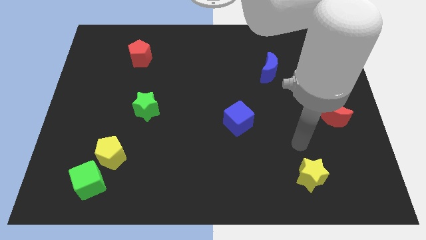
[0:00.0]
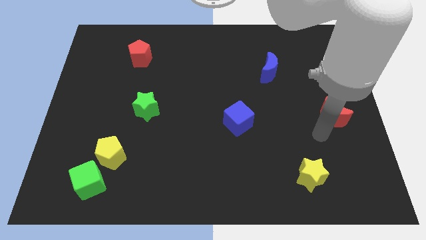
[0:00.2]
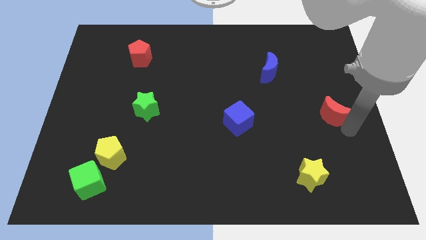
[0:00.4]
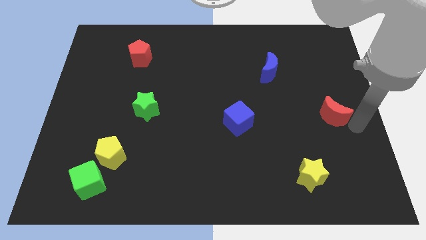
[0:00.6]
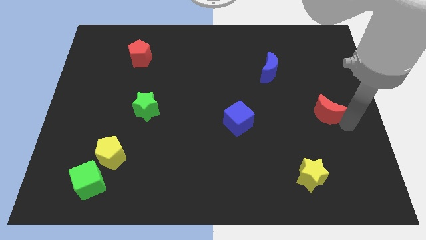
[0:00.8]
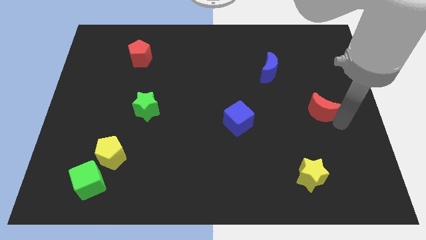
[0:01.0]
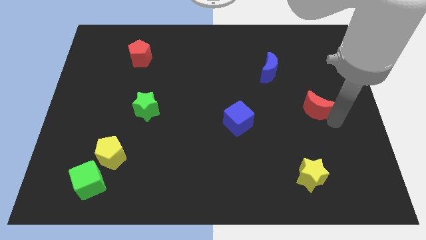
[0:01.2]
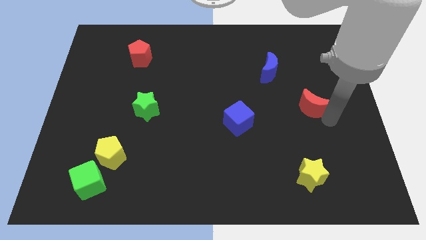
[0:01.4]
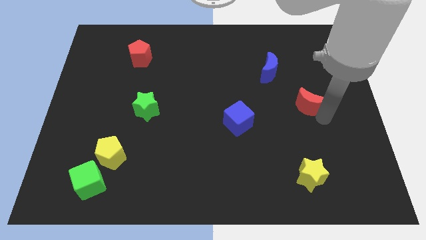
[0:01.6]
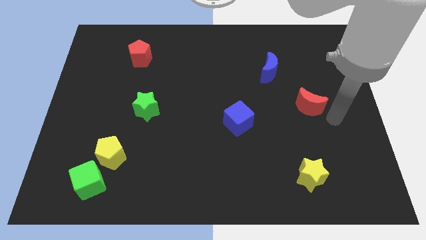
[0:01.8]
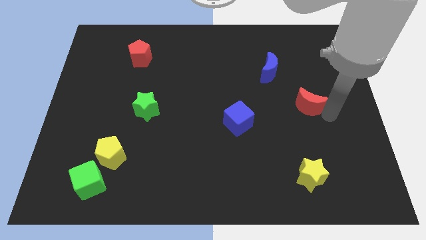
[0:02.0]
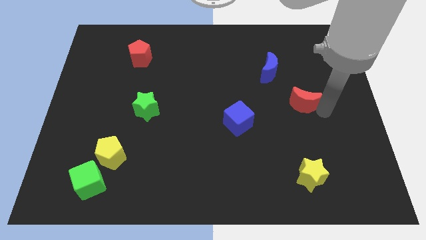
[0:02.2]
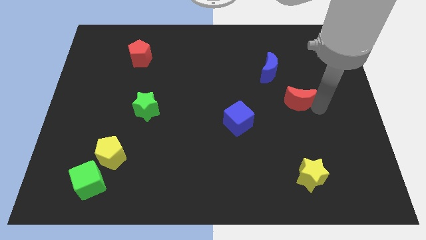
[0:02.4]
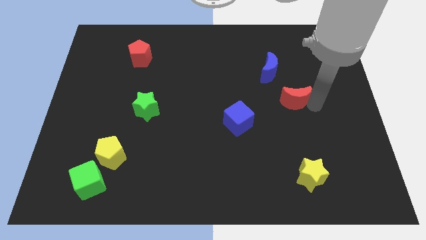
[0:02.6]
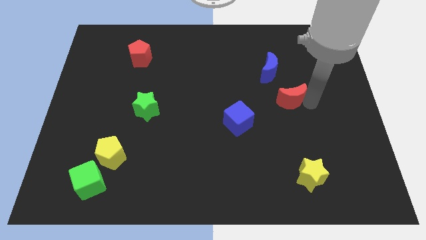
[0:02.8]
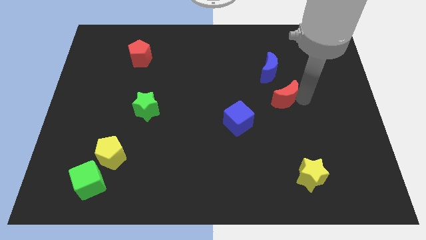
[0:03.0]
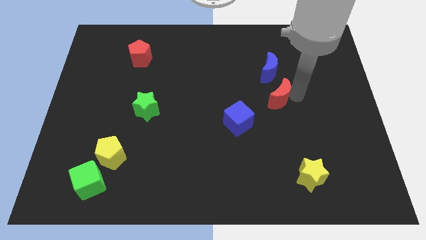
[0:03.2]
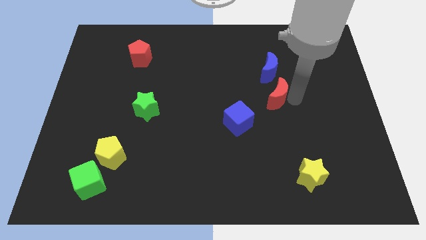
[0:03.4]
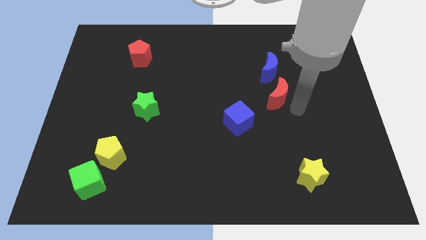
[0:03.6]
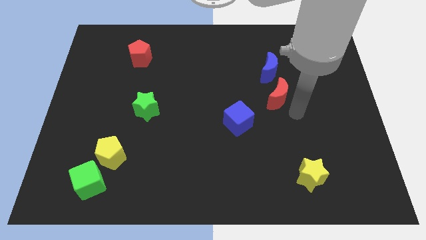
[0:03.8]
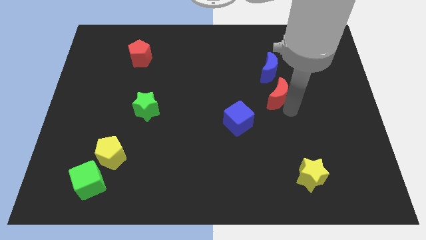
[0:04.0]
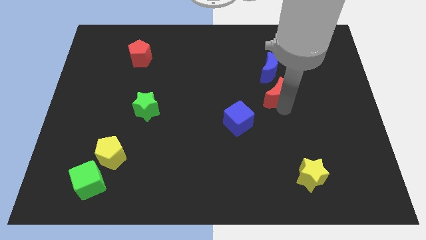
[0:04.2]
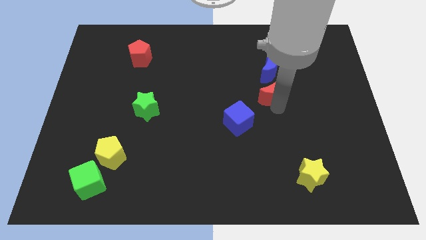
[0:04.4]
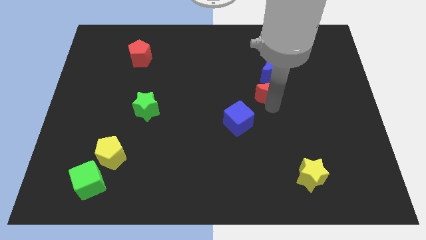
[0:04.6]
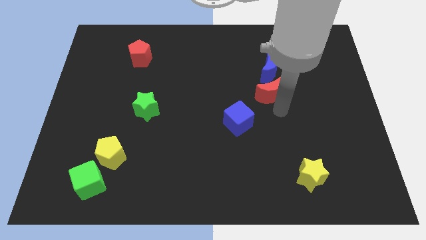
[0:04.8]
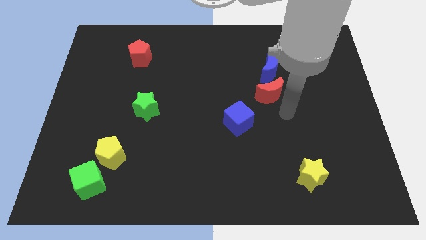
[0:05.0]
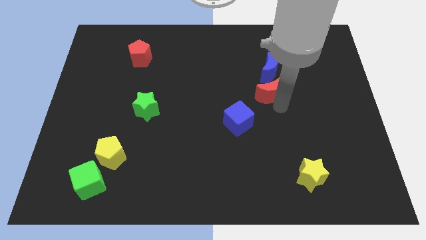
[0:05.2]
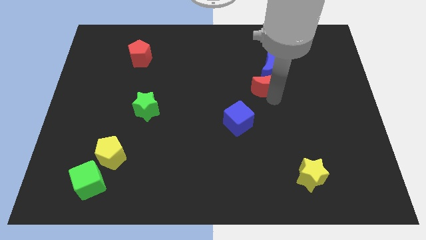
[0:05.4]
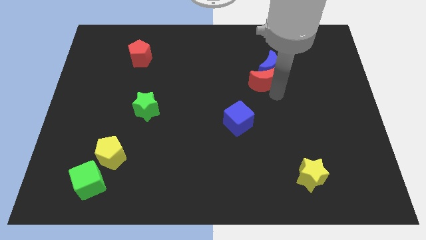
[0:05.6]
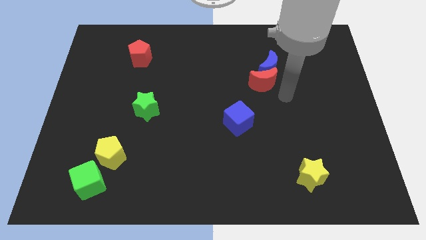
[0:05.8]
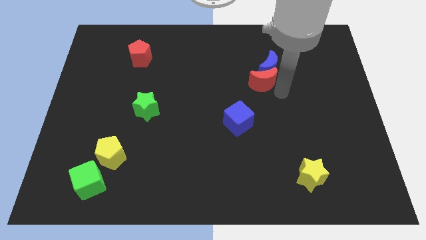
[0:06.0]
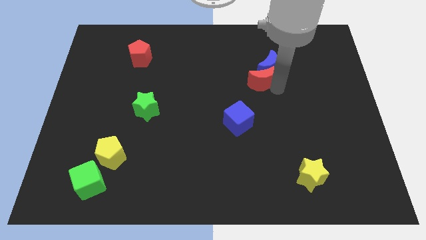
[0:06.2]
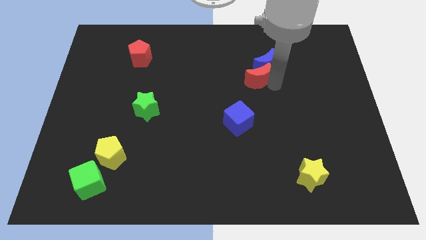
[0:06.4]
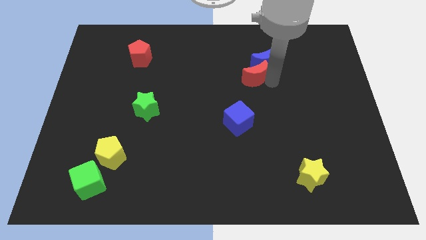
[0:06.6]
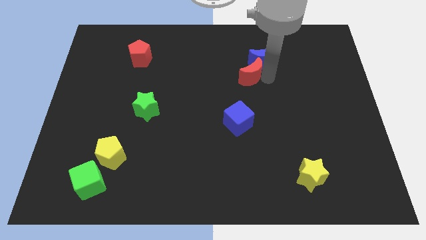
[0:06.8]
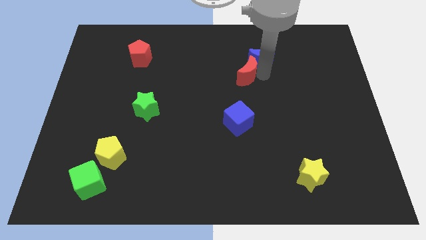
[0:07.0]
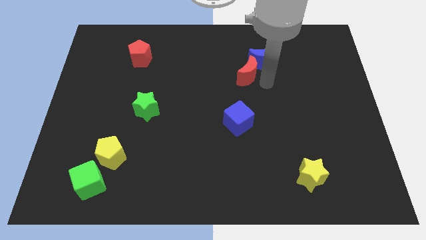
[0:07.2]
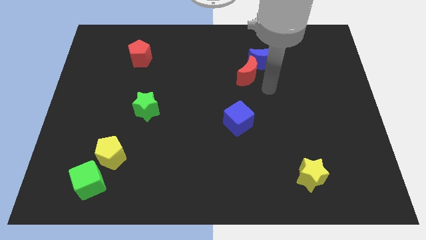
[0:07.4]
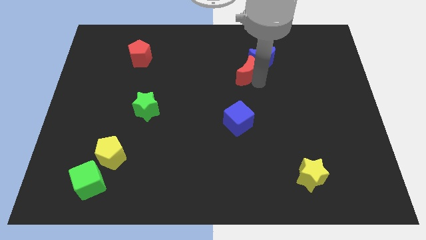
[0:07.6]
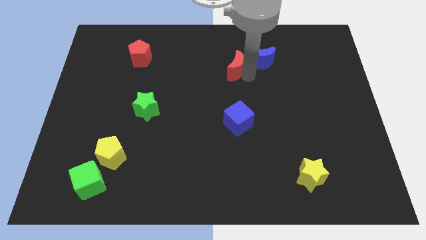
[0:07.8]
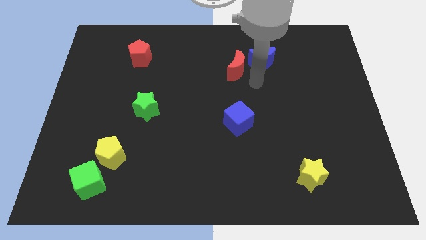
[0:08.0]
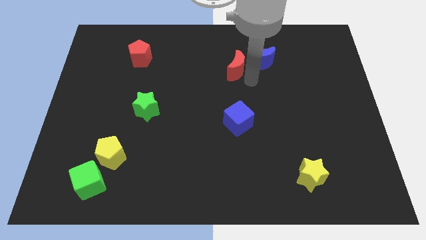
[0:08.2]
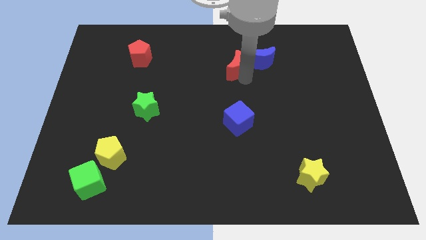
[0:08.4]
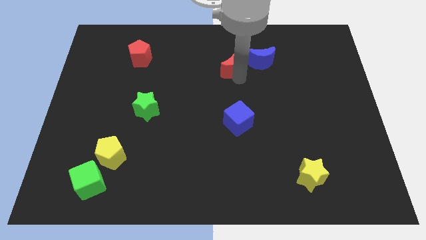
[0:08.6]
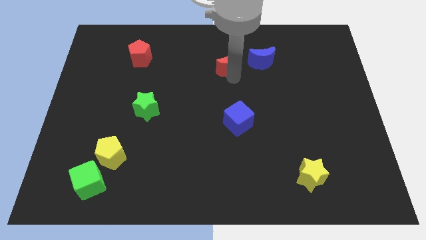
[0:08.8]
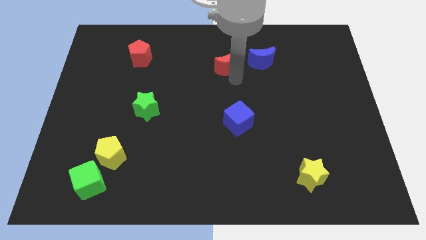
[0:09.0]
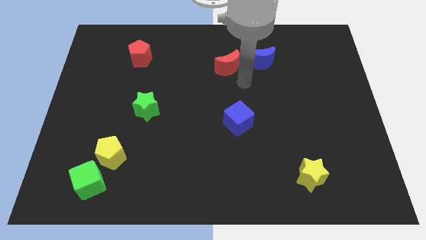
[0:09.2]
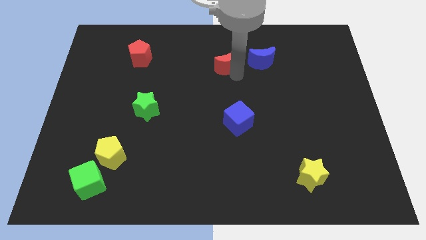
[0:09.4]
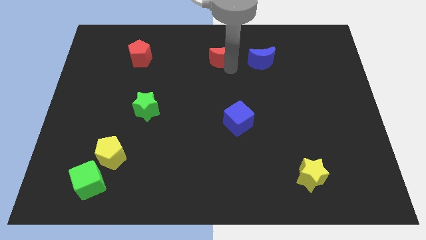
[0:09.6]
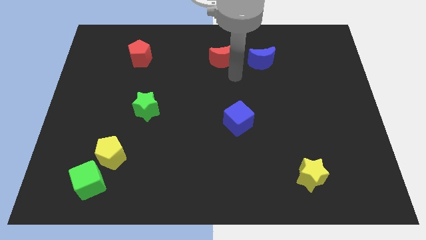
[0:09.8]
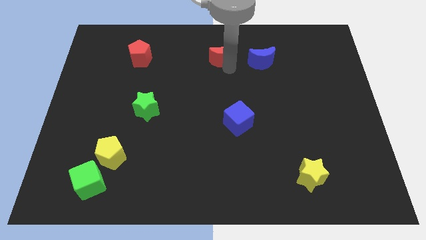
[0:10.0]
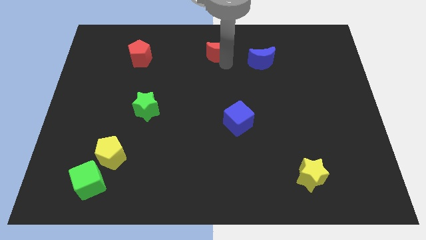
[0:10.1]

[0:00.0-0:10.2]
slide the red moon to the top side

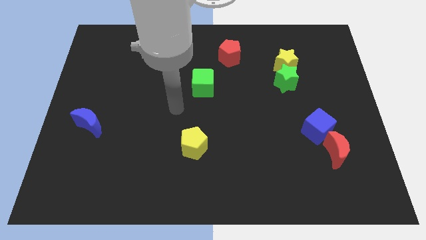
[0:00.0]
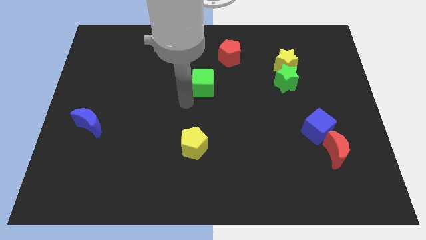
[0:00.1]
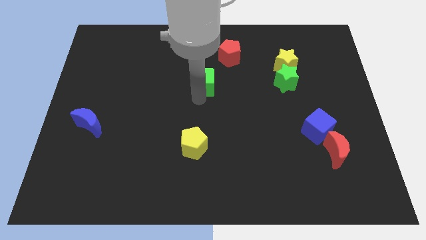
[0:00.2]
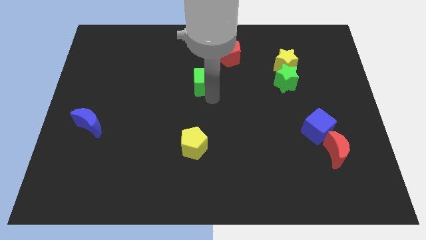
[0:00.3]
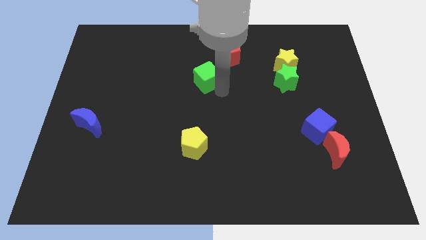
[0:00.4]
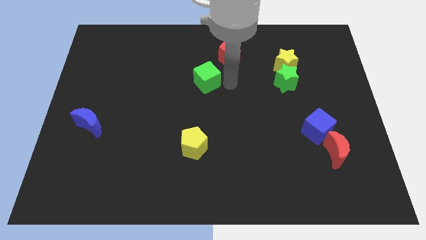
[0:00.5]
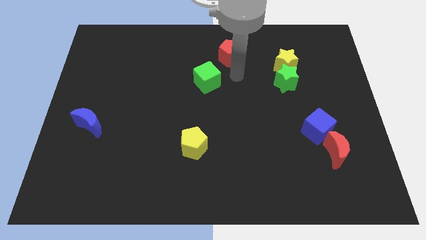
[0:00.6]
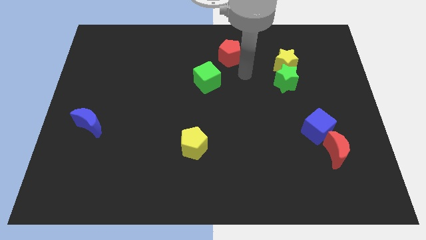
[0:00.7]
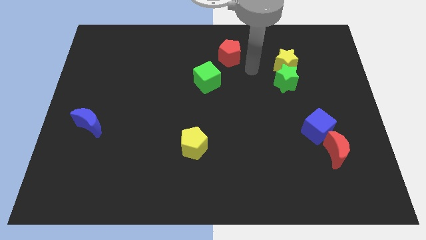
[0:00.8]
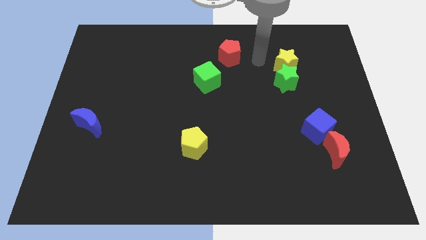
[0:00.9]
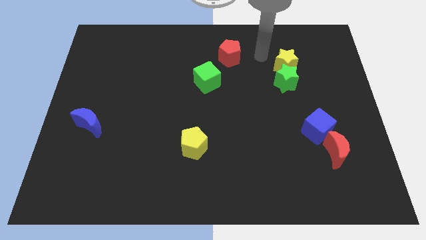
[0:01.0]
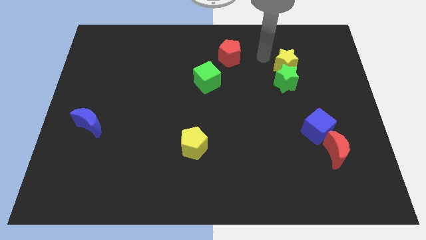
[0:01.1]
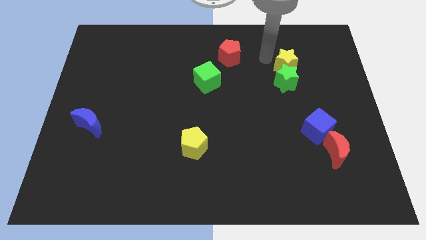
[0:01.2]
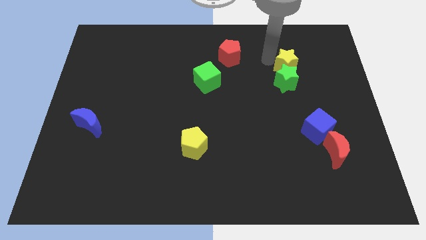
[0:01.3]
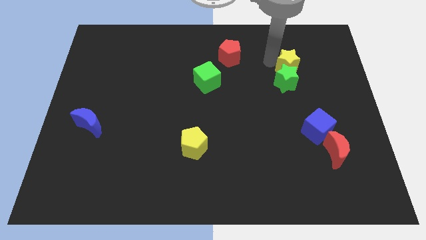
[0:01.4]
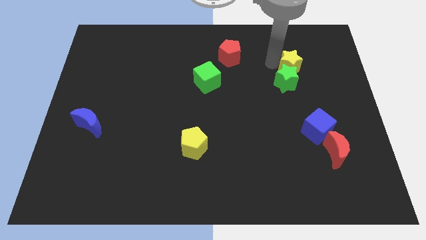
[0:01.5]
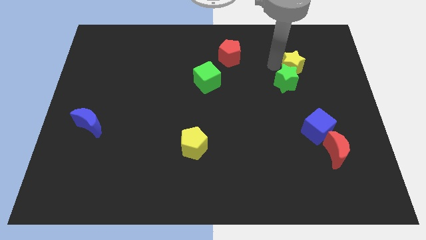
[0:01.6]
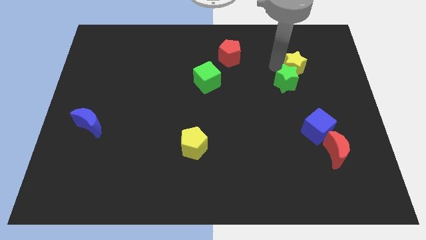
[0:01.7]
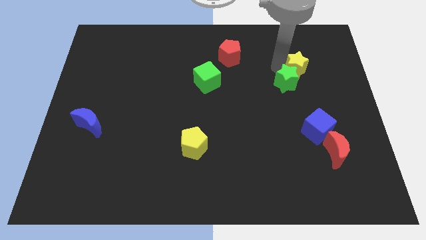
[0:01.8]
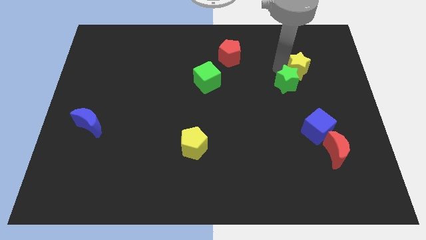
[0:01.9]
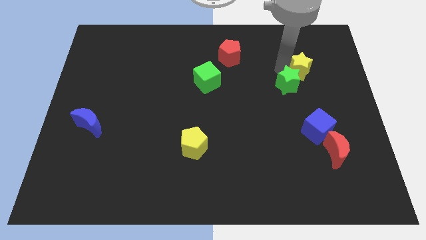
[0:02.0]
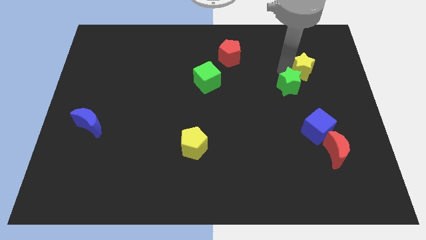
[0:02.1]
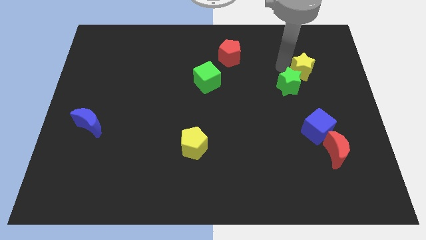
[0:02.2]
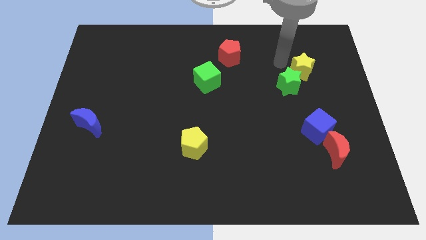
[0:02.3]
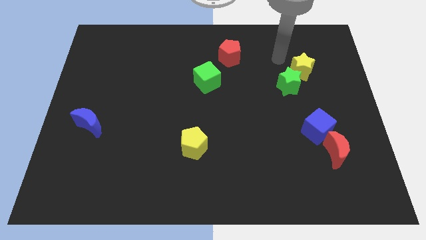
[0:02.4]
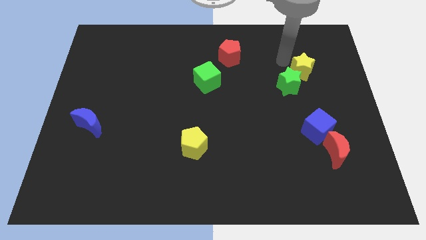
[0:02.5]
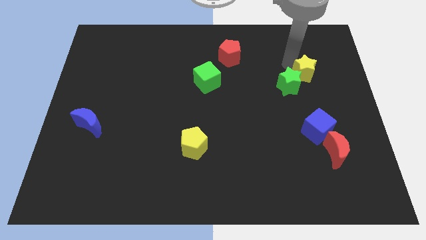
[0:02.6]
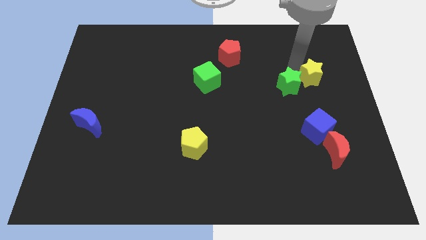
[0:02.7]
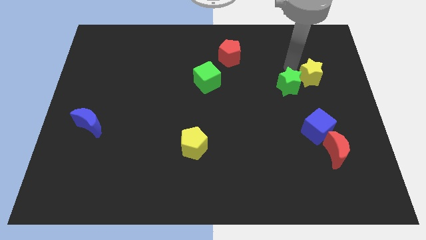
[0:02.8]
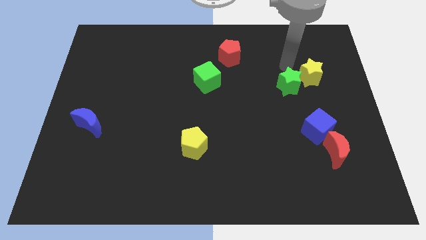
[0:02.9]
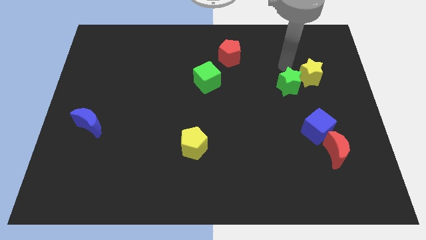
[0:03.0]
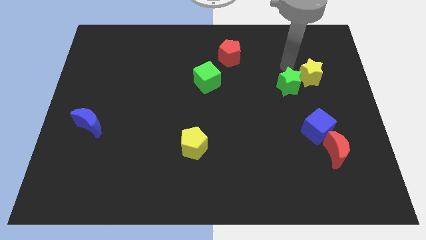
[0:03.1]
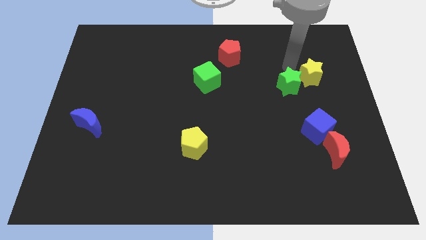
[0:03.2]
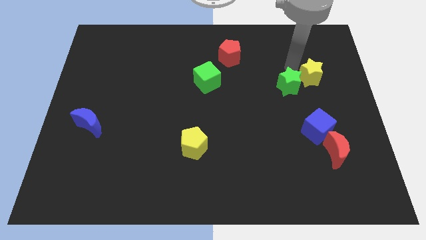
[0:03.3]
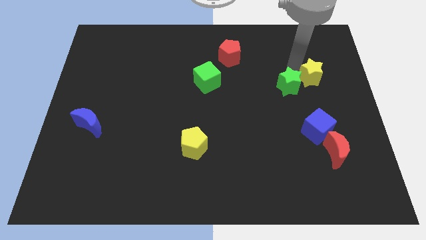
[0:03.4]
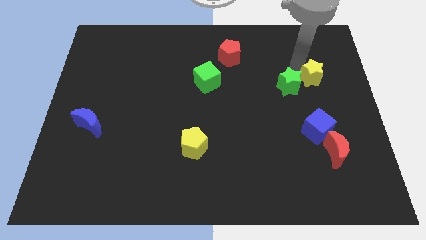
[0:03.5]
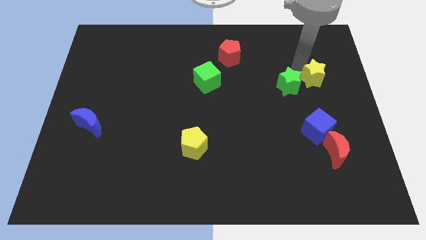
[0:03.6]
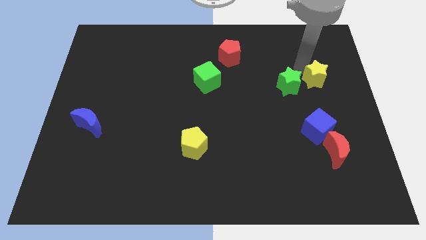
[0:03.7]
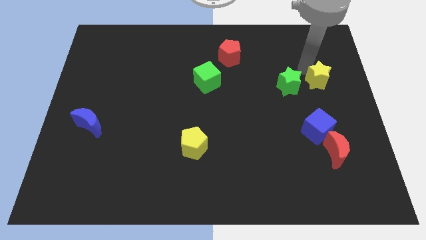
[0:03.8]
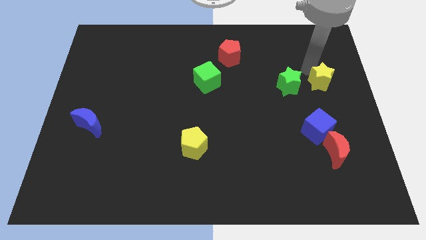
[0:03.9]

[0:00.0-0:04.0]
move the yellow star to the center right
